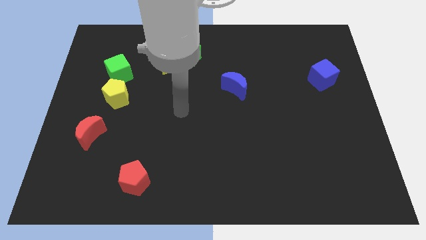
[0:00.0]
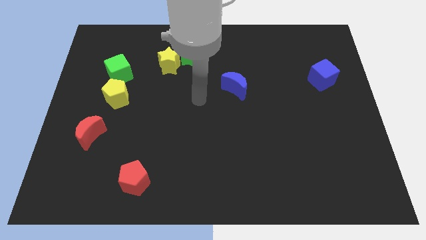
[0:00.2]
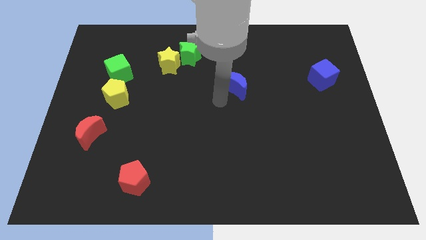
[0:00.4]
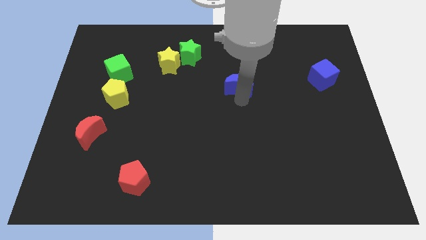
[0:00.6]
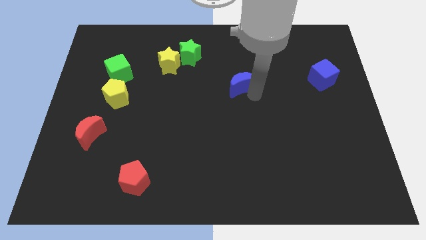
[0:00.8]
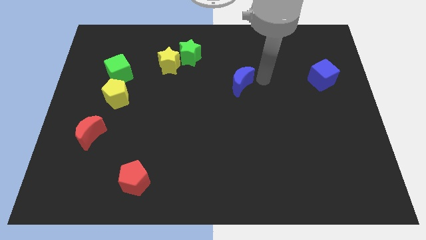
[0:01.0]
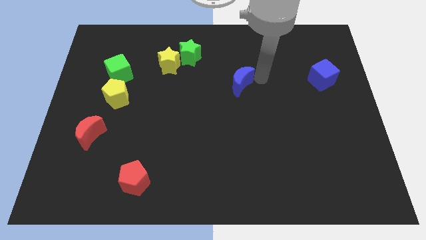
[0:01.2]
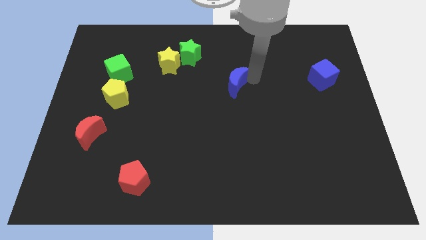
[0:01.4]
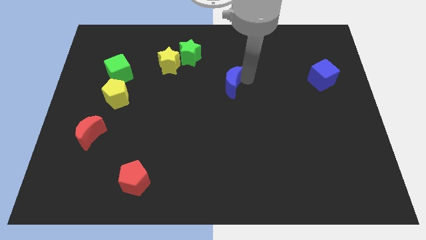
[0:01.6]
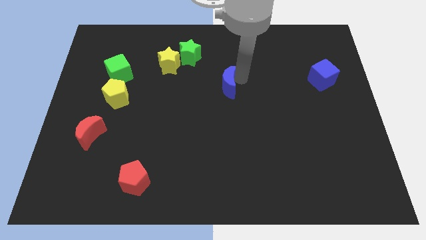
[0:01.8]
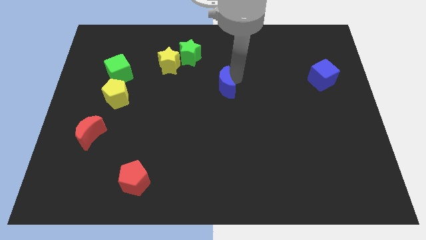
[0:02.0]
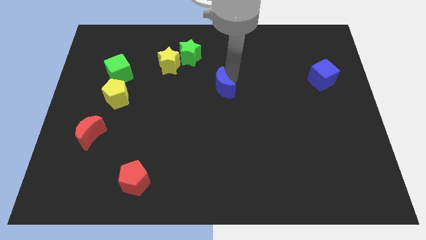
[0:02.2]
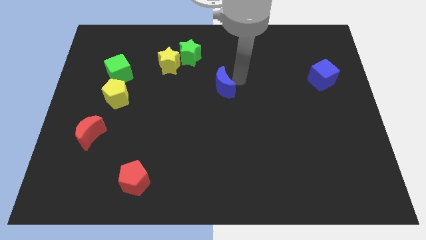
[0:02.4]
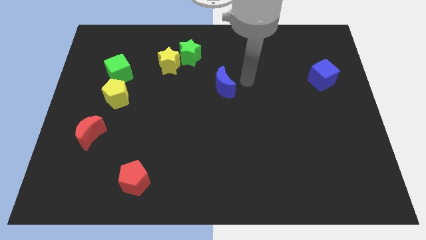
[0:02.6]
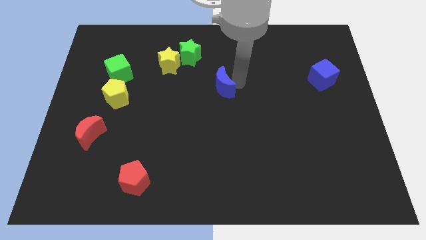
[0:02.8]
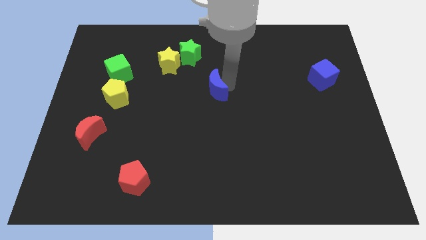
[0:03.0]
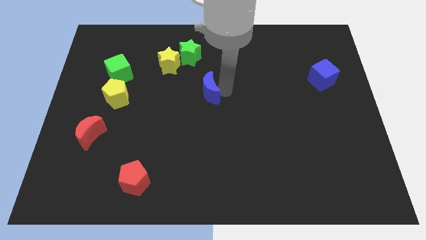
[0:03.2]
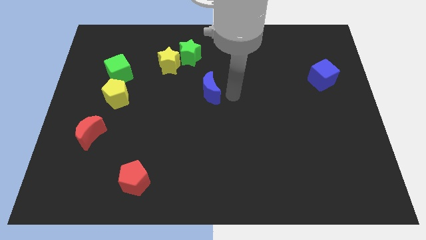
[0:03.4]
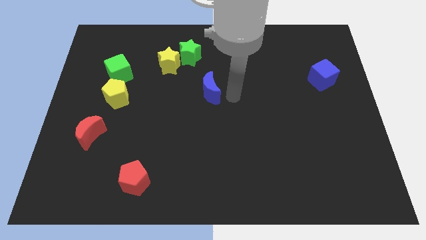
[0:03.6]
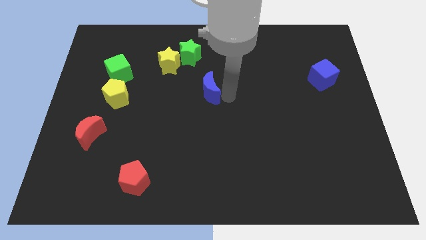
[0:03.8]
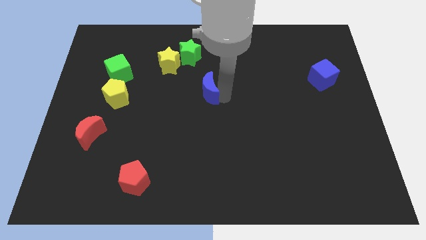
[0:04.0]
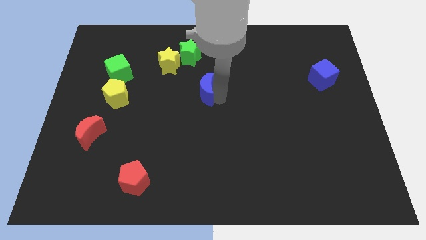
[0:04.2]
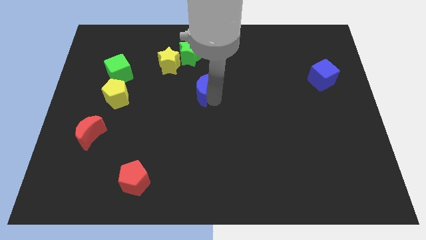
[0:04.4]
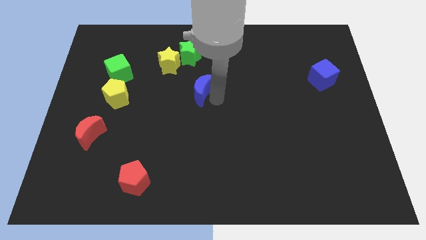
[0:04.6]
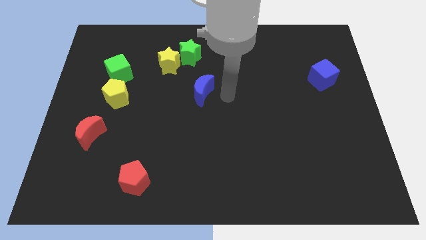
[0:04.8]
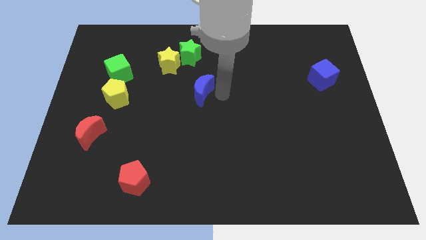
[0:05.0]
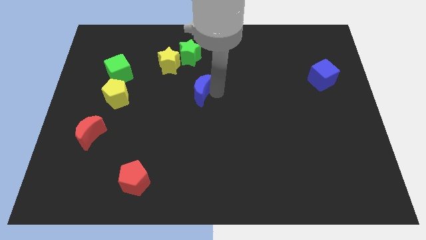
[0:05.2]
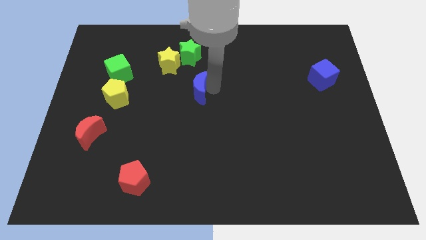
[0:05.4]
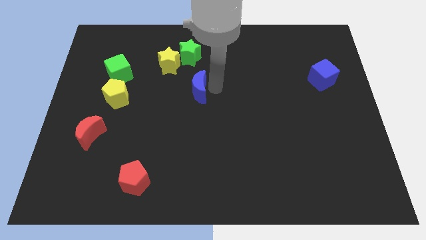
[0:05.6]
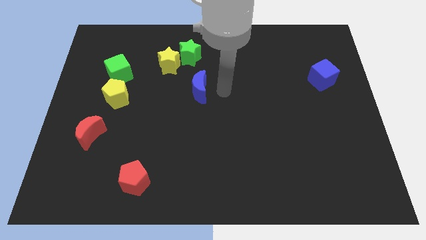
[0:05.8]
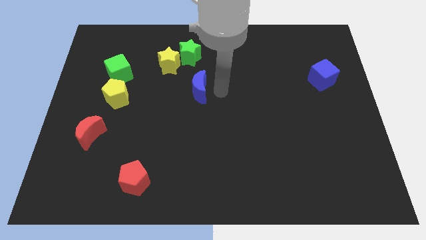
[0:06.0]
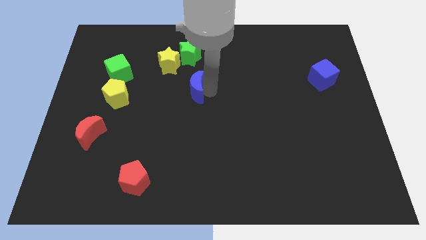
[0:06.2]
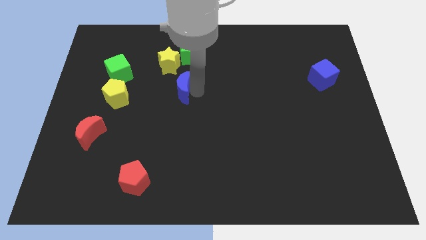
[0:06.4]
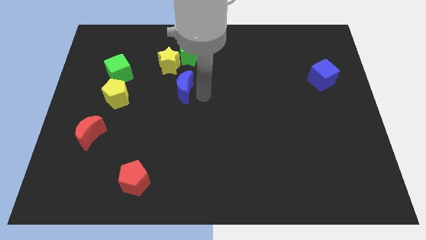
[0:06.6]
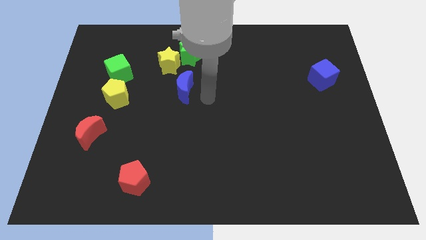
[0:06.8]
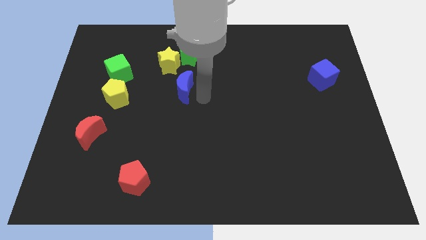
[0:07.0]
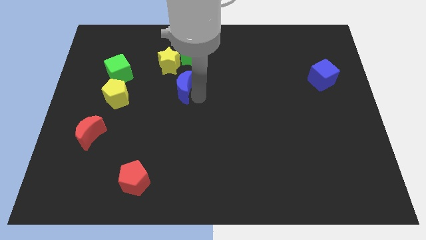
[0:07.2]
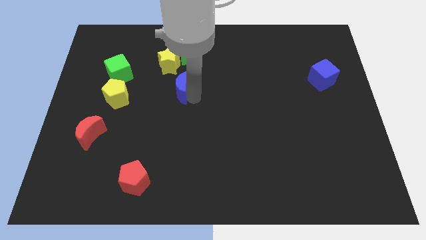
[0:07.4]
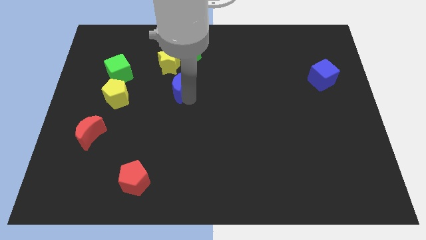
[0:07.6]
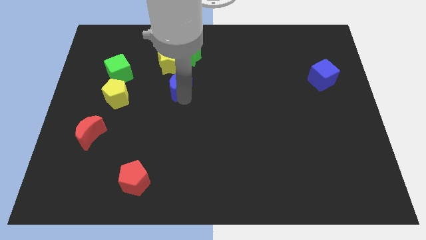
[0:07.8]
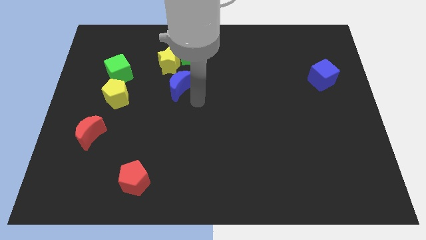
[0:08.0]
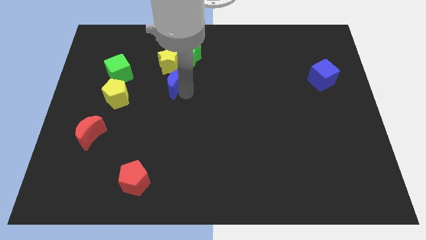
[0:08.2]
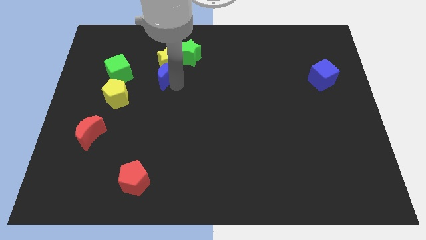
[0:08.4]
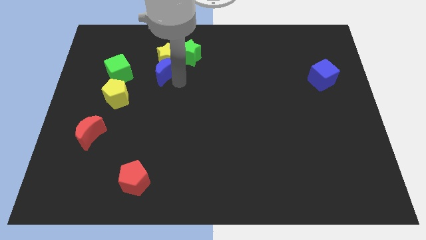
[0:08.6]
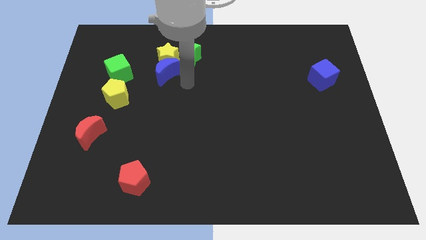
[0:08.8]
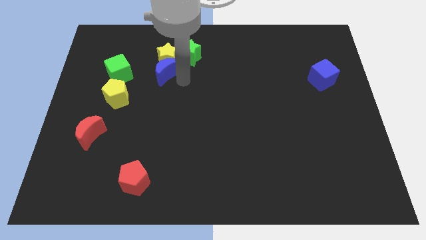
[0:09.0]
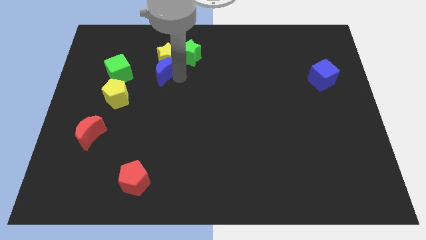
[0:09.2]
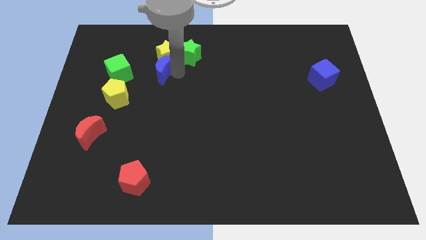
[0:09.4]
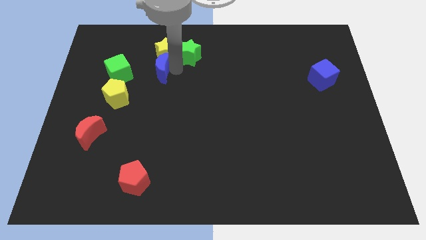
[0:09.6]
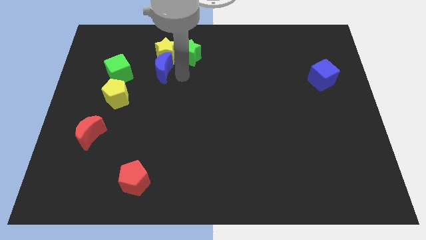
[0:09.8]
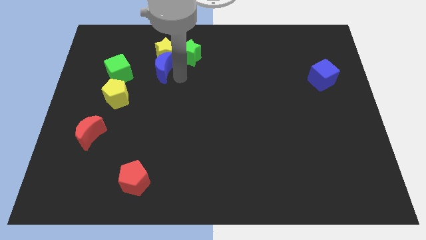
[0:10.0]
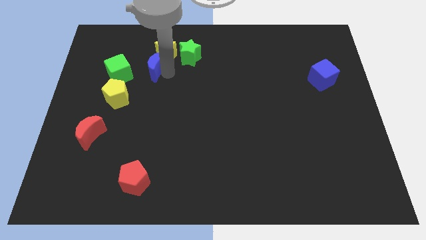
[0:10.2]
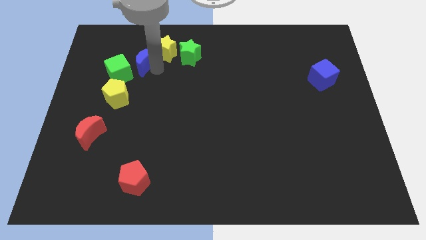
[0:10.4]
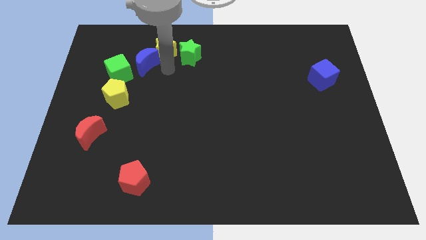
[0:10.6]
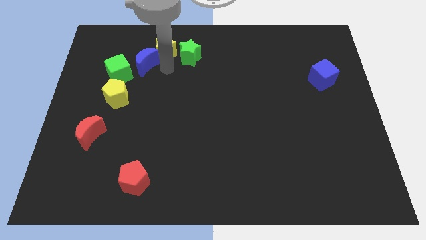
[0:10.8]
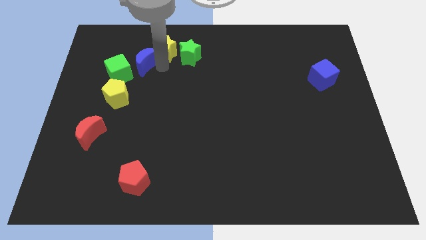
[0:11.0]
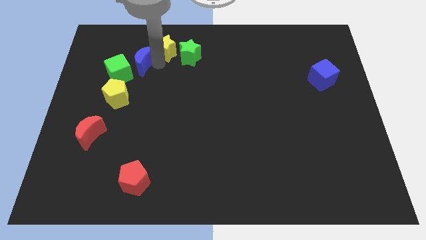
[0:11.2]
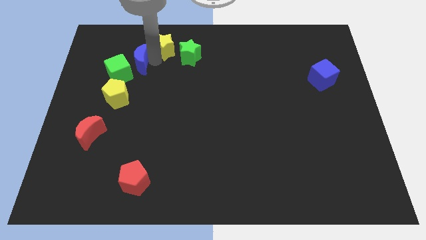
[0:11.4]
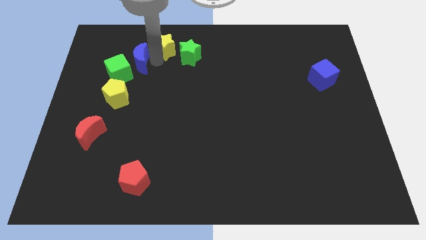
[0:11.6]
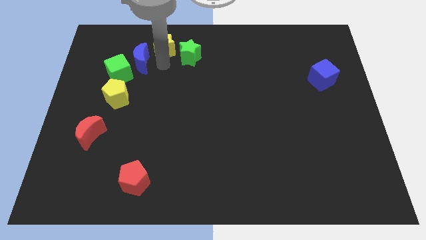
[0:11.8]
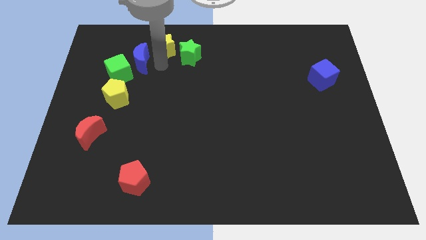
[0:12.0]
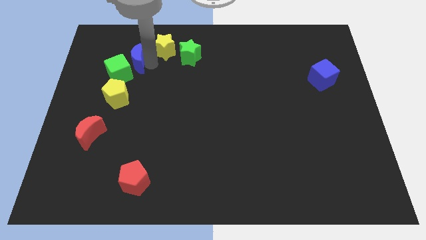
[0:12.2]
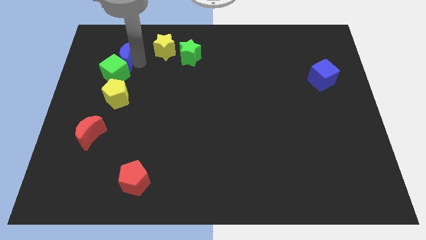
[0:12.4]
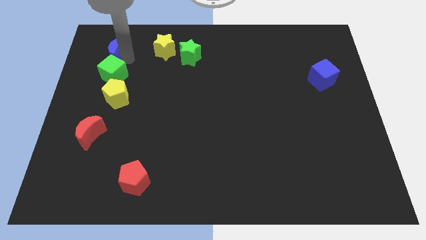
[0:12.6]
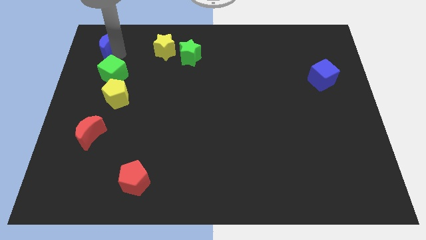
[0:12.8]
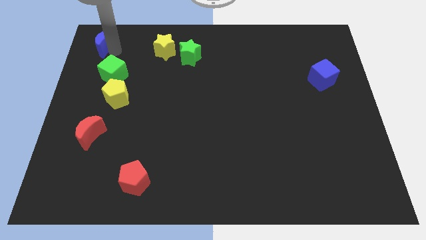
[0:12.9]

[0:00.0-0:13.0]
slide the blue moon to the upper left corner
